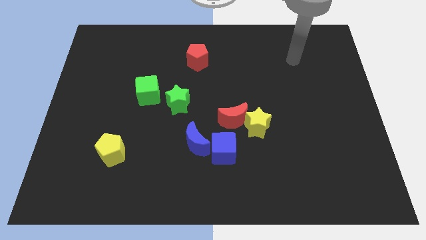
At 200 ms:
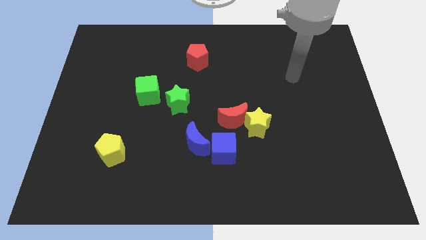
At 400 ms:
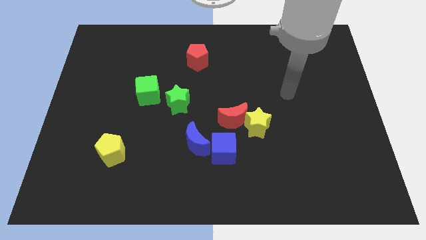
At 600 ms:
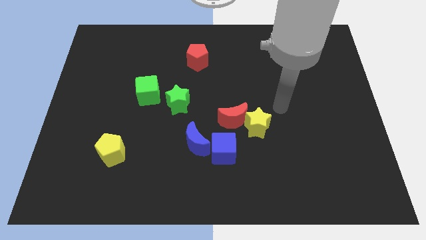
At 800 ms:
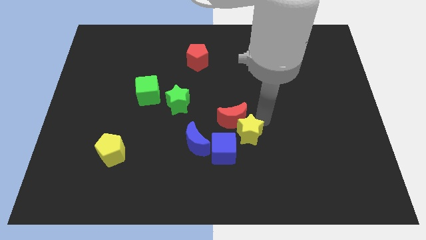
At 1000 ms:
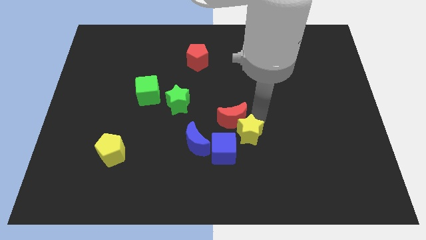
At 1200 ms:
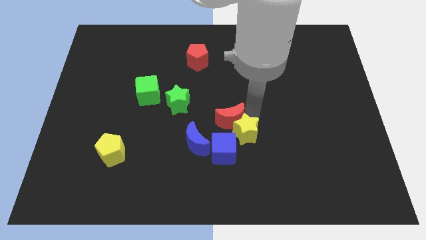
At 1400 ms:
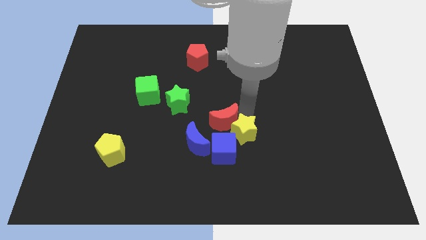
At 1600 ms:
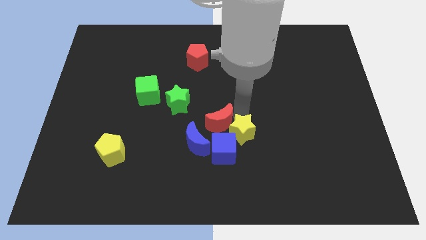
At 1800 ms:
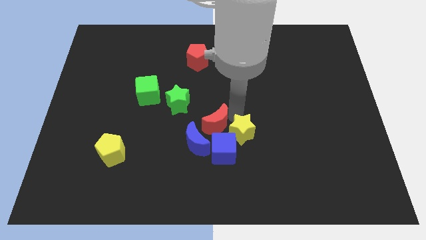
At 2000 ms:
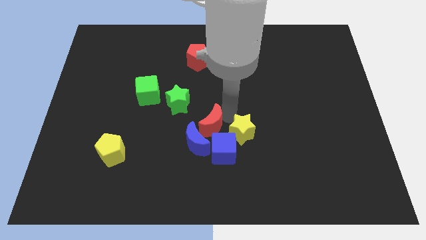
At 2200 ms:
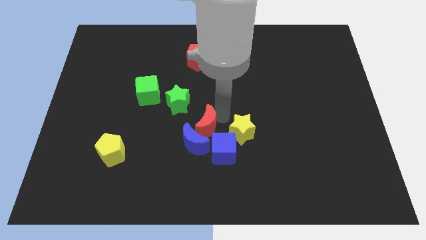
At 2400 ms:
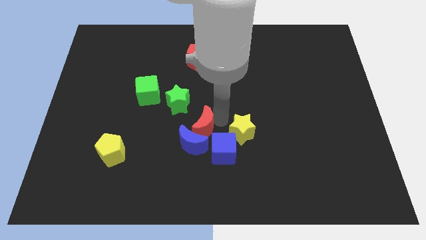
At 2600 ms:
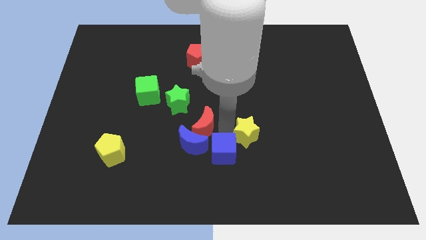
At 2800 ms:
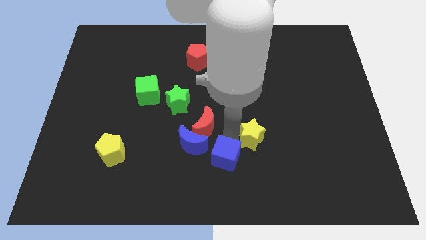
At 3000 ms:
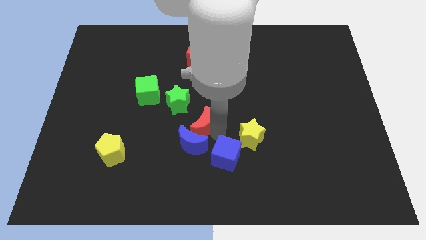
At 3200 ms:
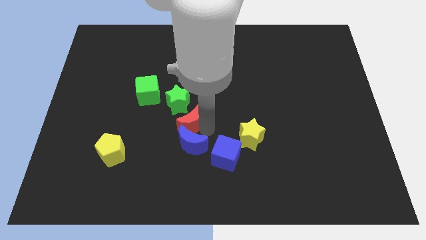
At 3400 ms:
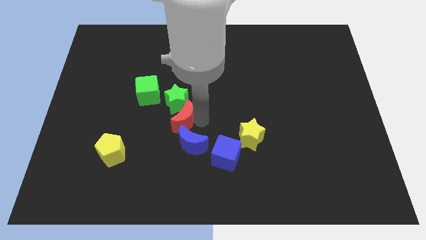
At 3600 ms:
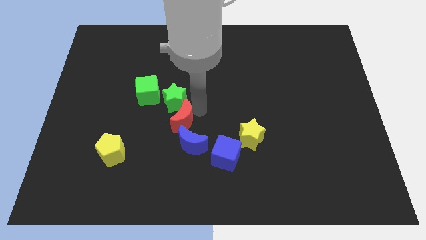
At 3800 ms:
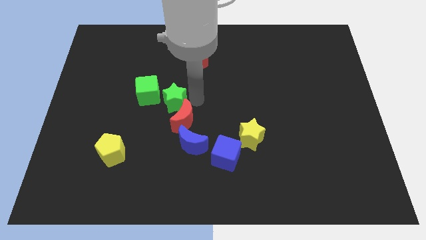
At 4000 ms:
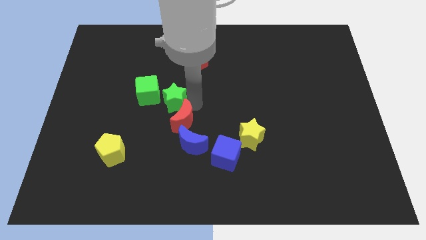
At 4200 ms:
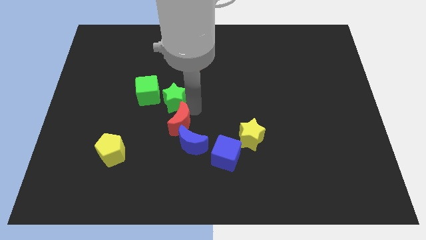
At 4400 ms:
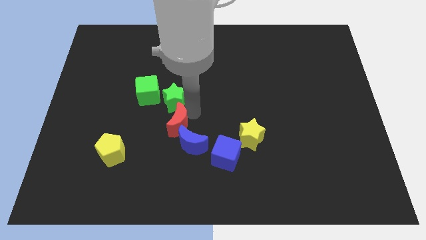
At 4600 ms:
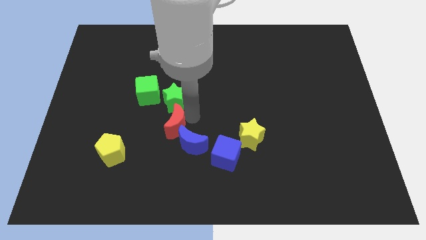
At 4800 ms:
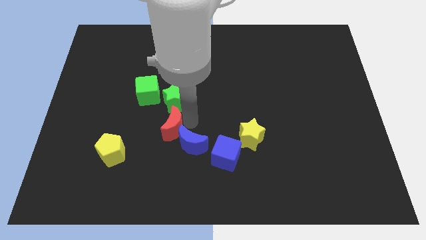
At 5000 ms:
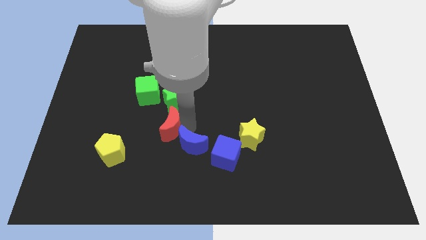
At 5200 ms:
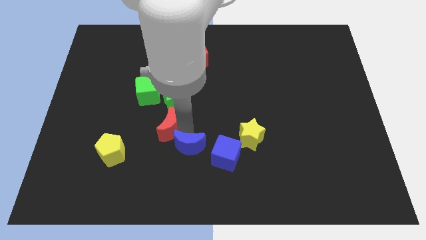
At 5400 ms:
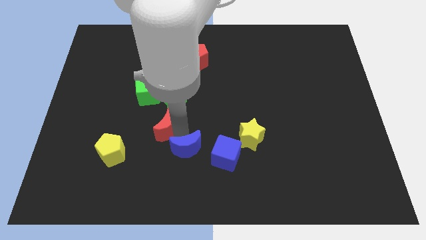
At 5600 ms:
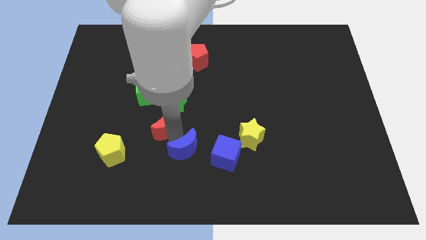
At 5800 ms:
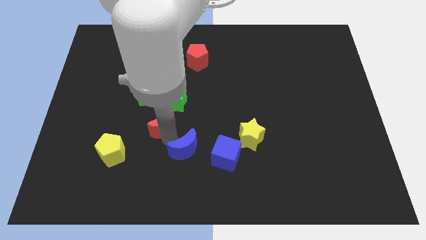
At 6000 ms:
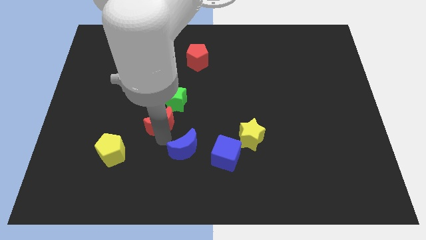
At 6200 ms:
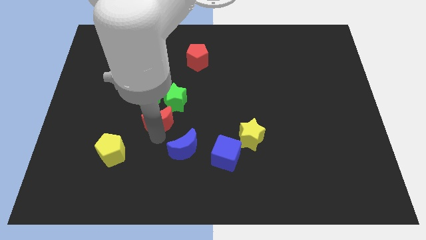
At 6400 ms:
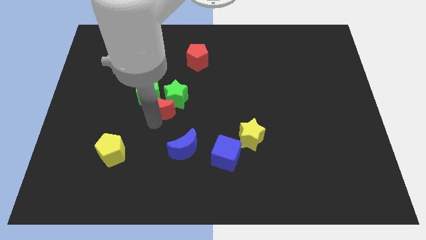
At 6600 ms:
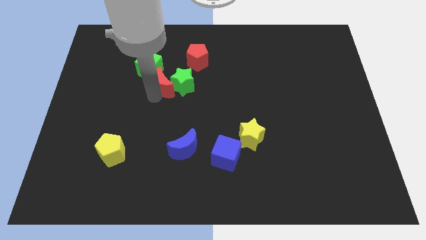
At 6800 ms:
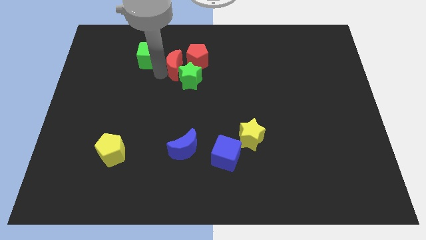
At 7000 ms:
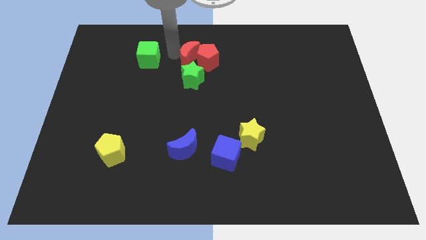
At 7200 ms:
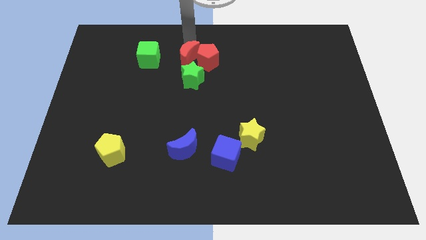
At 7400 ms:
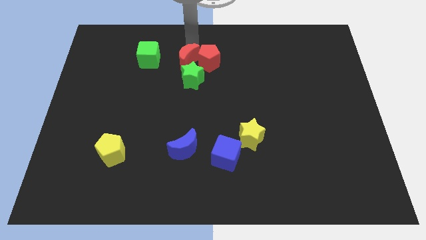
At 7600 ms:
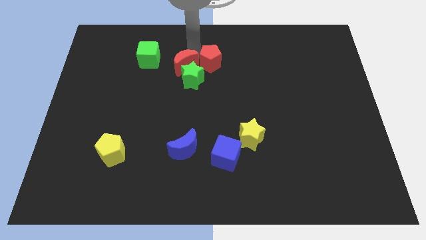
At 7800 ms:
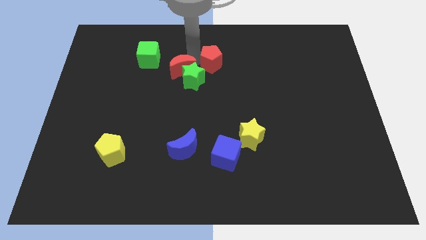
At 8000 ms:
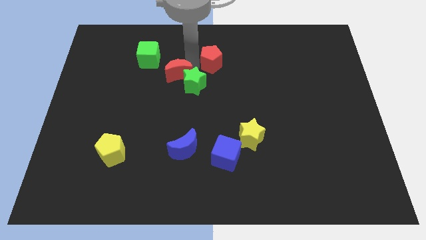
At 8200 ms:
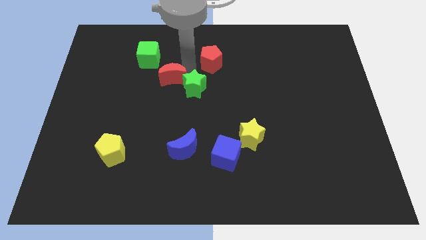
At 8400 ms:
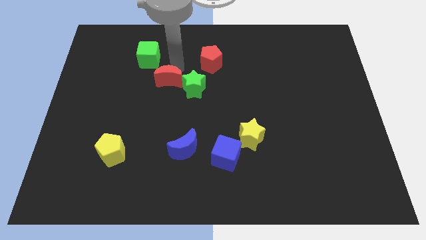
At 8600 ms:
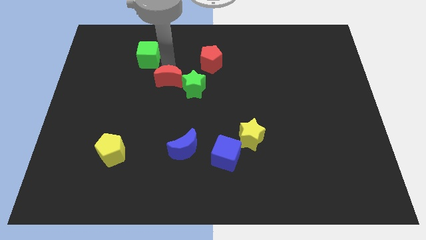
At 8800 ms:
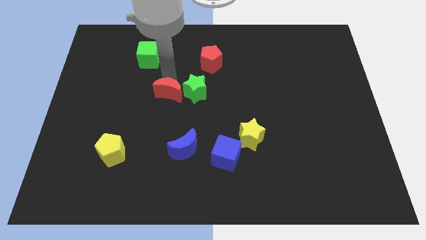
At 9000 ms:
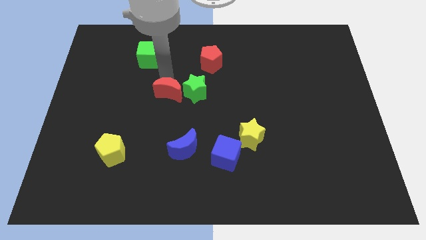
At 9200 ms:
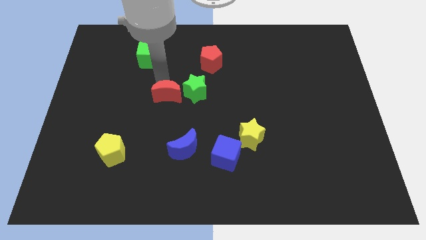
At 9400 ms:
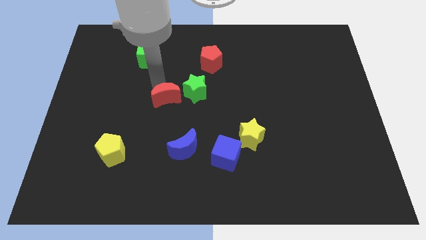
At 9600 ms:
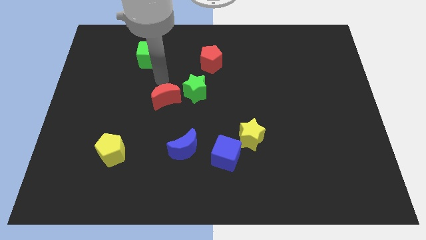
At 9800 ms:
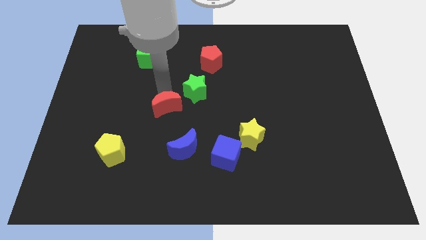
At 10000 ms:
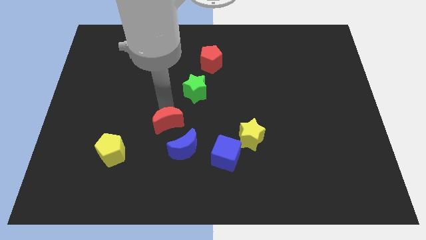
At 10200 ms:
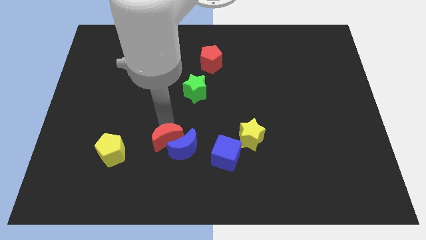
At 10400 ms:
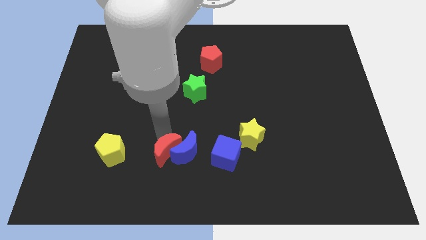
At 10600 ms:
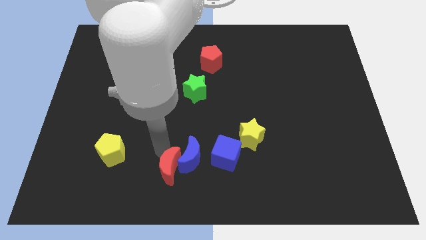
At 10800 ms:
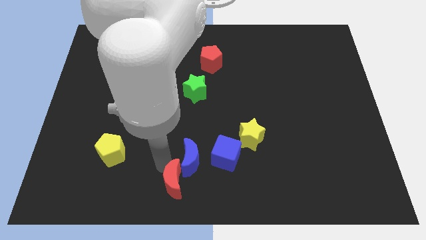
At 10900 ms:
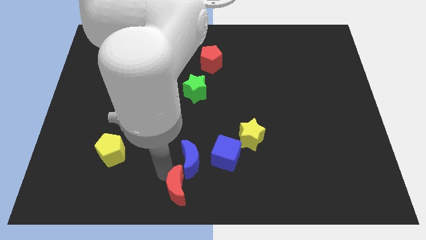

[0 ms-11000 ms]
move the red moon to the bottom left of the blue cube

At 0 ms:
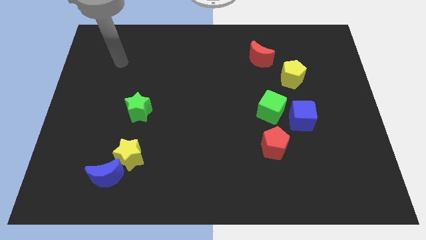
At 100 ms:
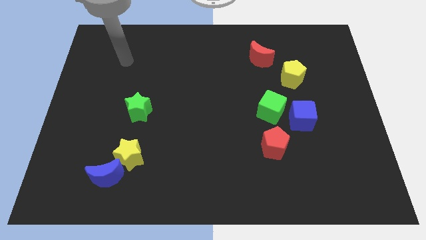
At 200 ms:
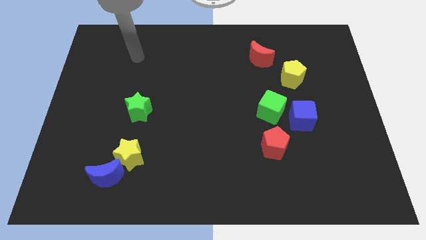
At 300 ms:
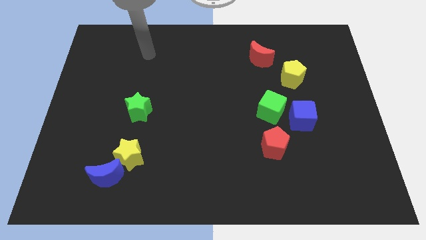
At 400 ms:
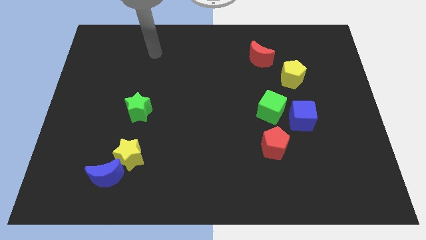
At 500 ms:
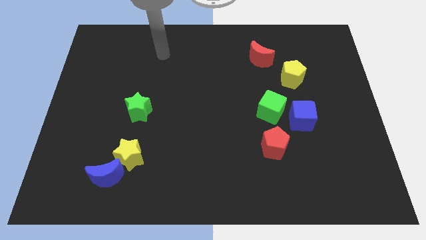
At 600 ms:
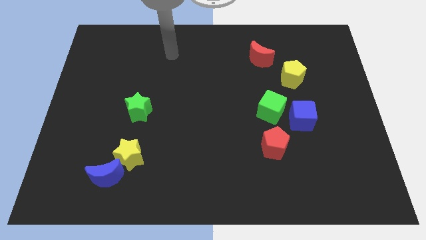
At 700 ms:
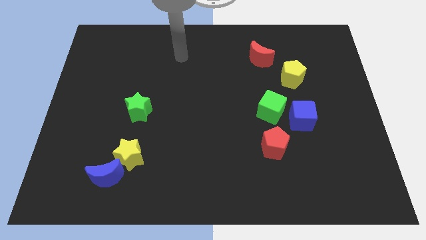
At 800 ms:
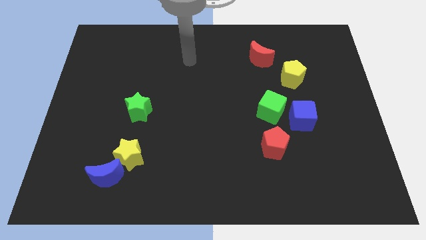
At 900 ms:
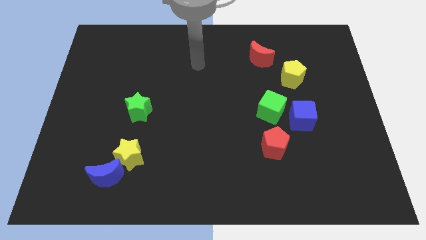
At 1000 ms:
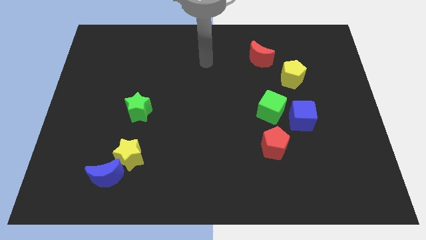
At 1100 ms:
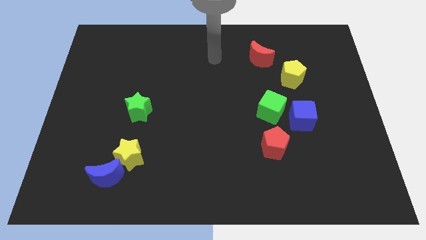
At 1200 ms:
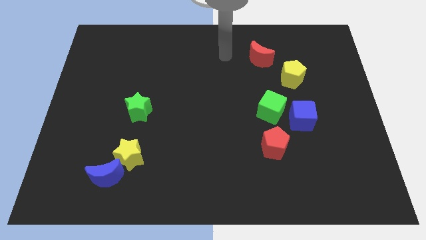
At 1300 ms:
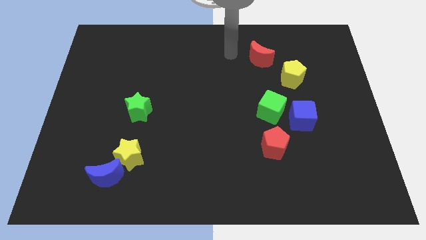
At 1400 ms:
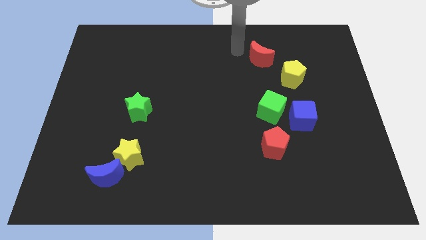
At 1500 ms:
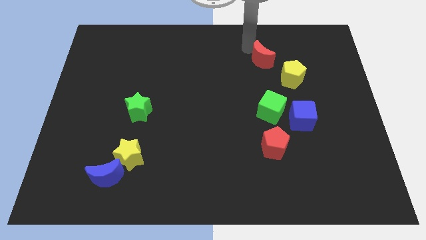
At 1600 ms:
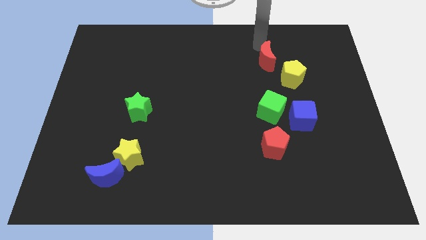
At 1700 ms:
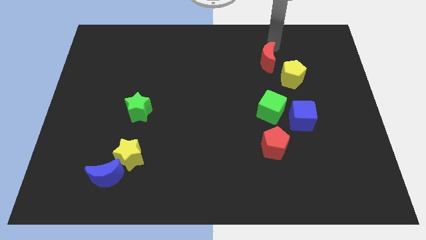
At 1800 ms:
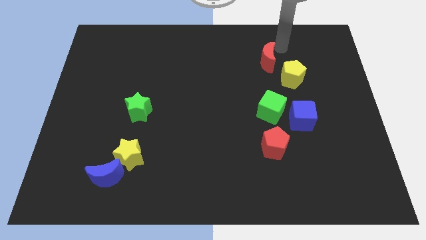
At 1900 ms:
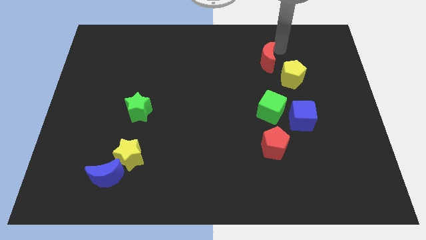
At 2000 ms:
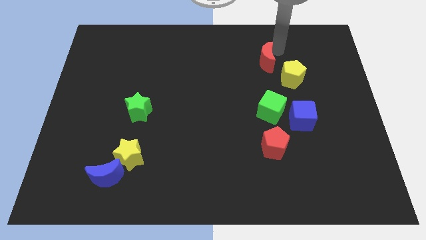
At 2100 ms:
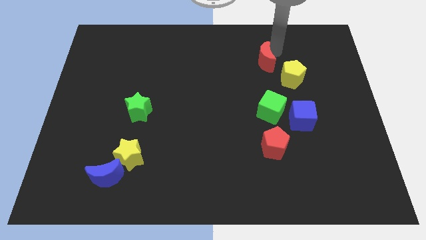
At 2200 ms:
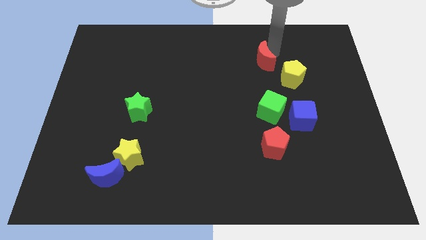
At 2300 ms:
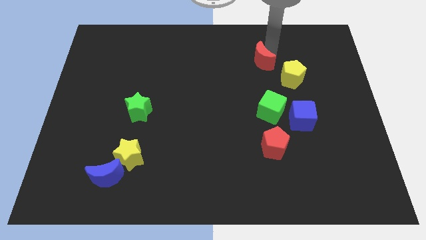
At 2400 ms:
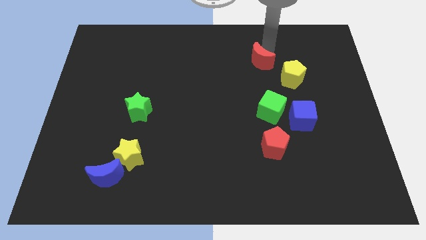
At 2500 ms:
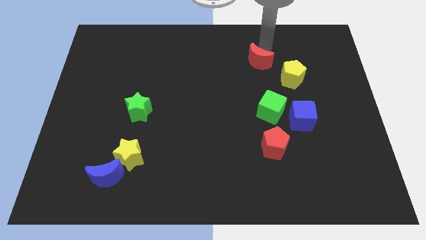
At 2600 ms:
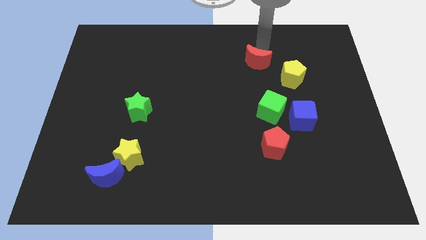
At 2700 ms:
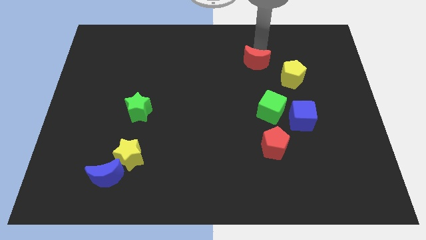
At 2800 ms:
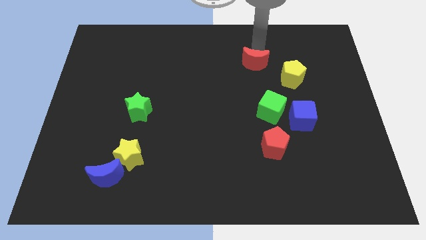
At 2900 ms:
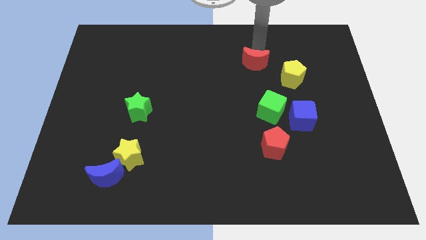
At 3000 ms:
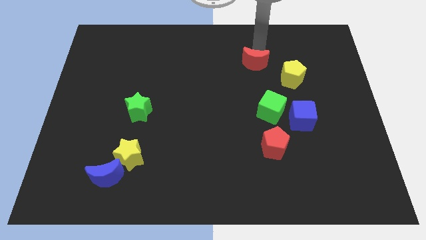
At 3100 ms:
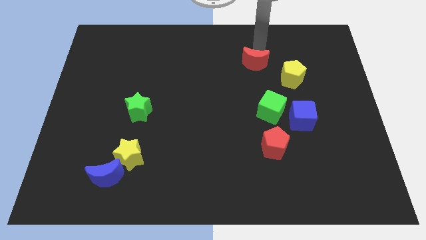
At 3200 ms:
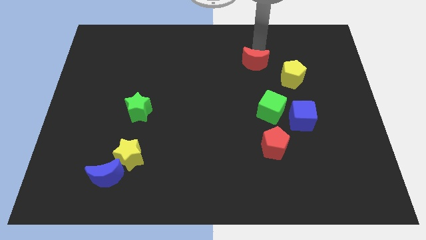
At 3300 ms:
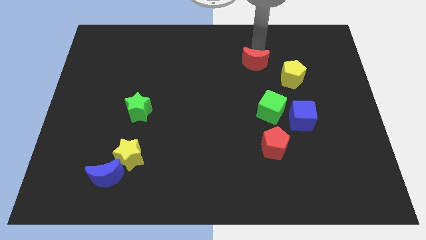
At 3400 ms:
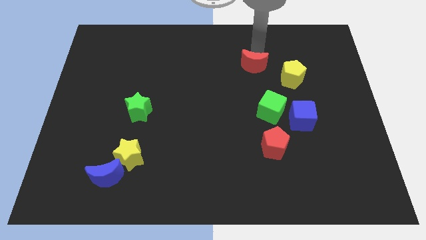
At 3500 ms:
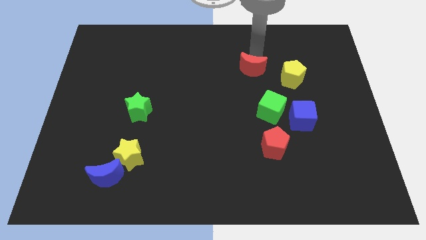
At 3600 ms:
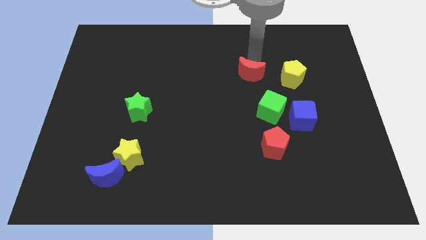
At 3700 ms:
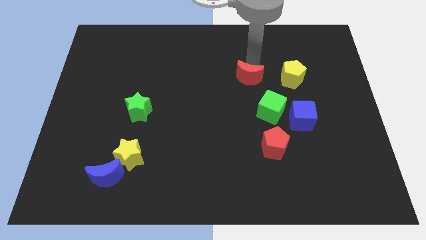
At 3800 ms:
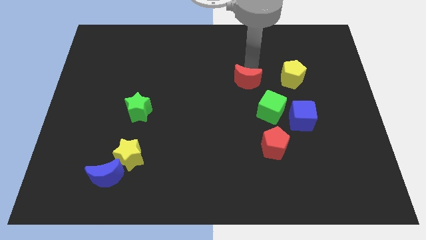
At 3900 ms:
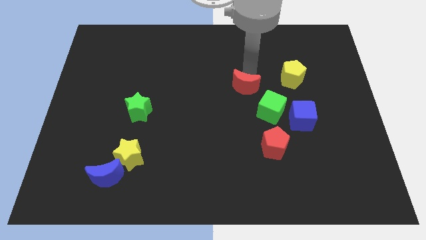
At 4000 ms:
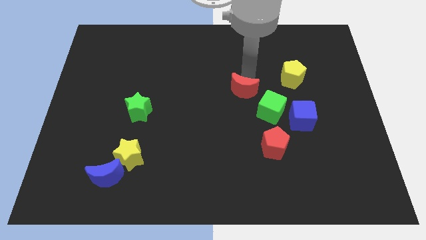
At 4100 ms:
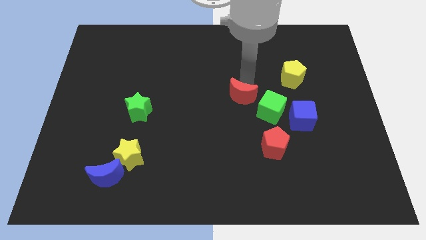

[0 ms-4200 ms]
move the red moon to the left side of the green cube
